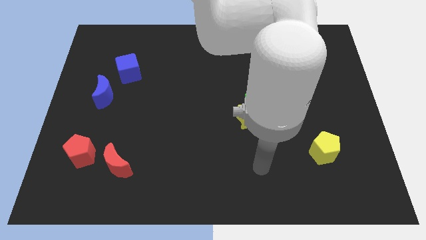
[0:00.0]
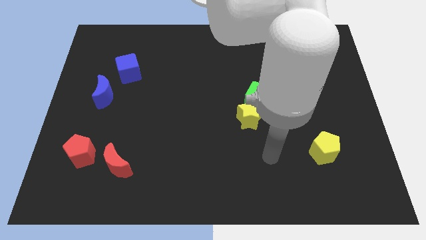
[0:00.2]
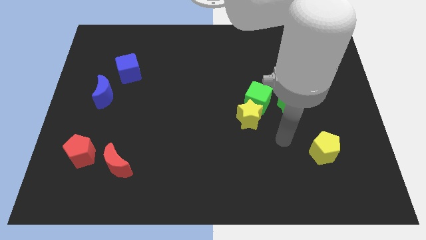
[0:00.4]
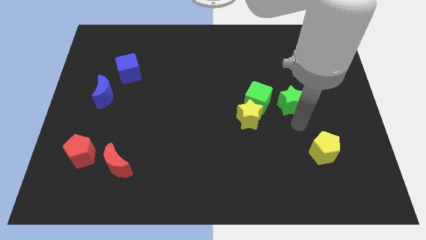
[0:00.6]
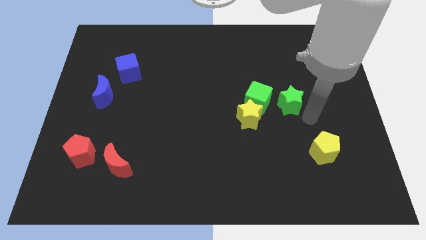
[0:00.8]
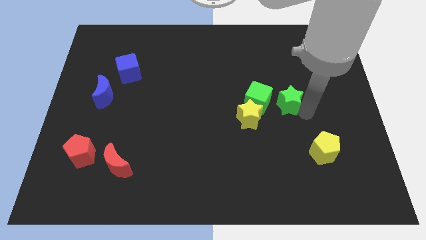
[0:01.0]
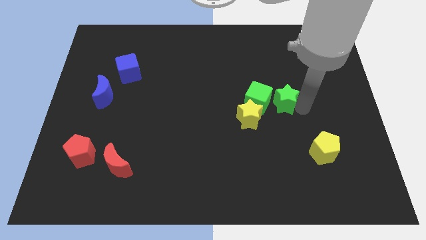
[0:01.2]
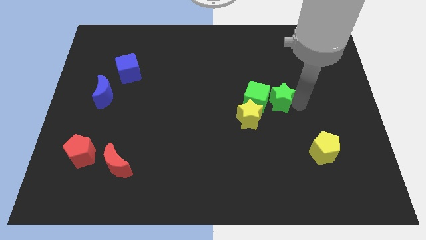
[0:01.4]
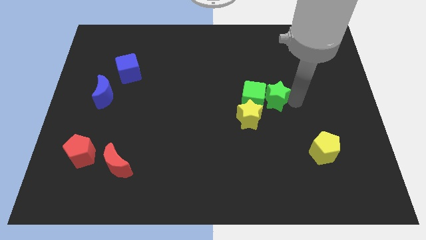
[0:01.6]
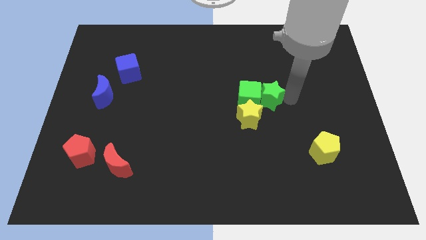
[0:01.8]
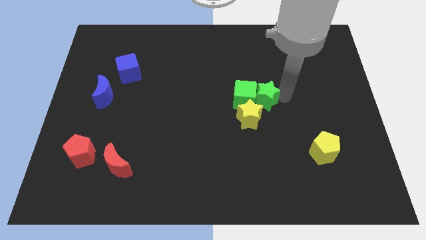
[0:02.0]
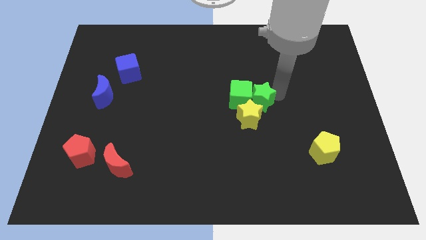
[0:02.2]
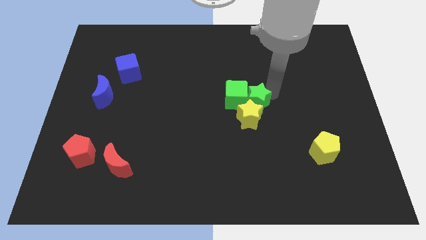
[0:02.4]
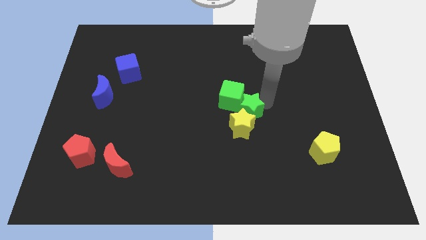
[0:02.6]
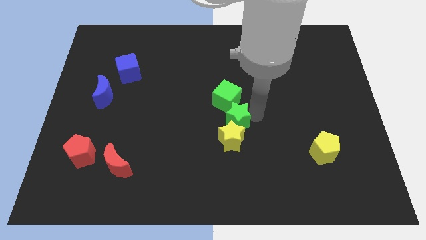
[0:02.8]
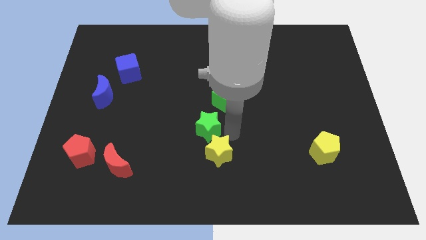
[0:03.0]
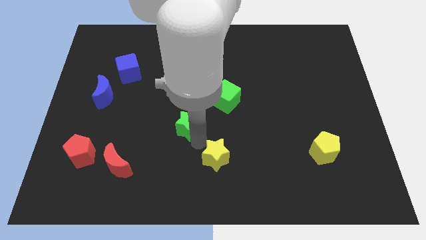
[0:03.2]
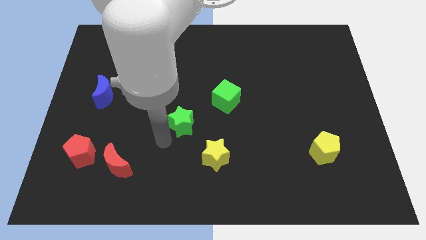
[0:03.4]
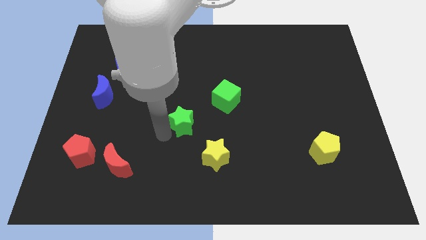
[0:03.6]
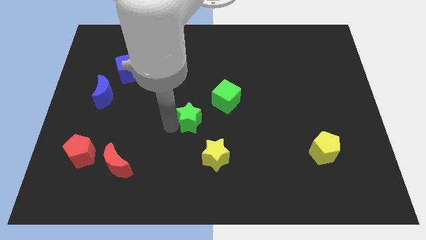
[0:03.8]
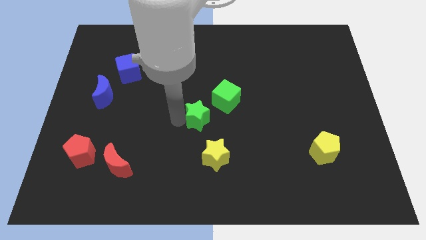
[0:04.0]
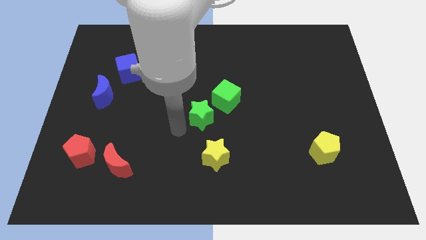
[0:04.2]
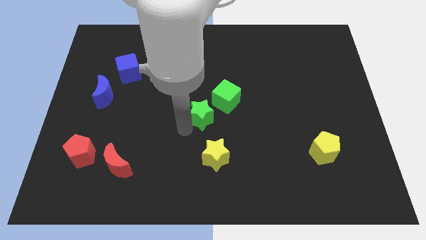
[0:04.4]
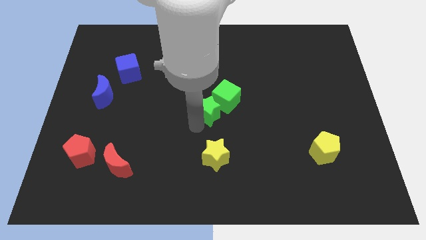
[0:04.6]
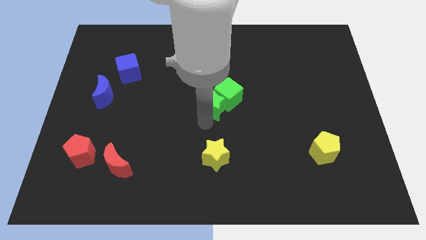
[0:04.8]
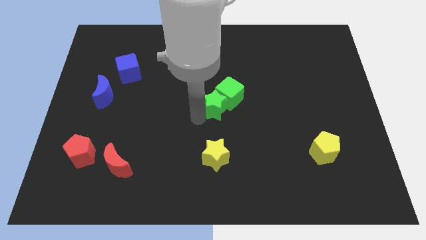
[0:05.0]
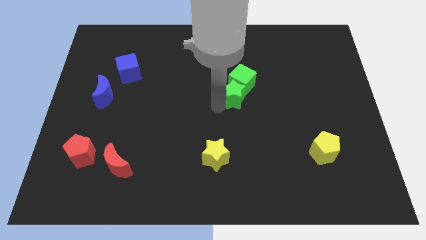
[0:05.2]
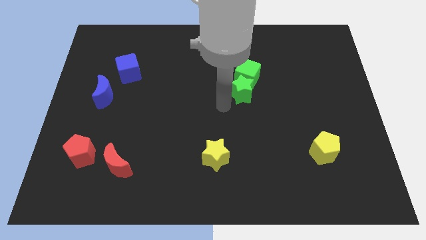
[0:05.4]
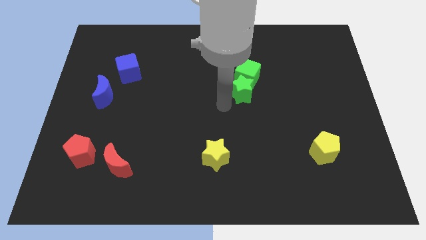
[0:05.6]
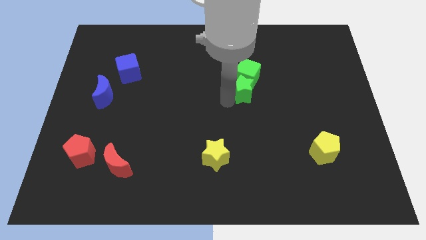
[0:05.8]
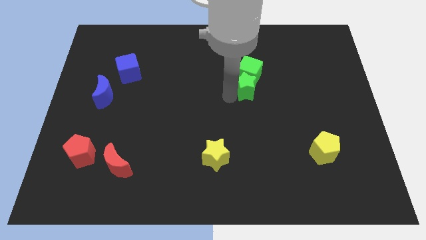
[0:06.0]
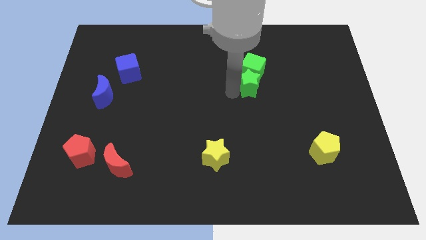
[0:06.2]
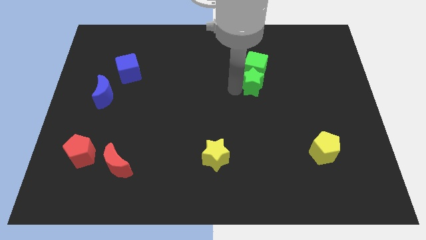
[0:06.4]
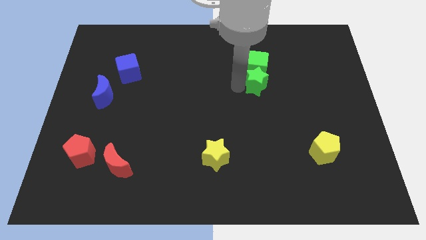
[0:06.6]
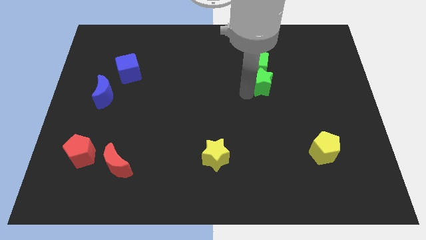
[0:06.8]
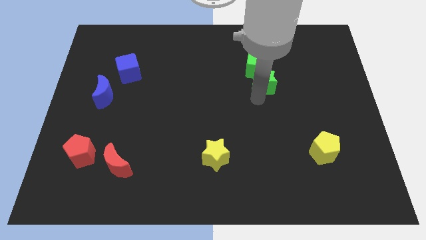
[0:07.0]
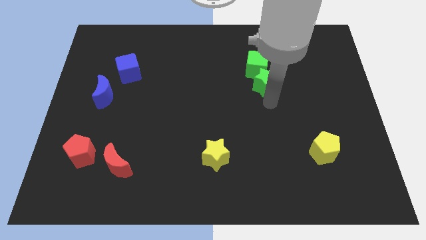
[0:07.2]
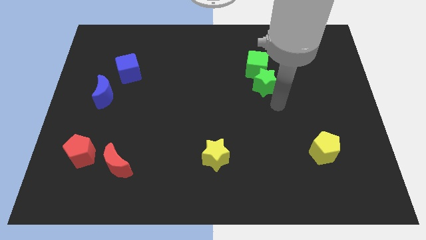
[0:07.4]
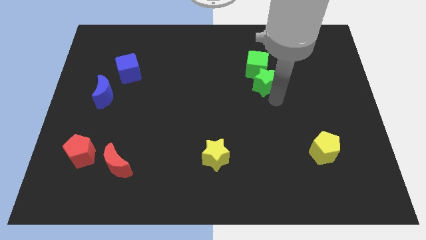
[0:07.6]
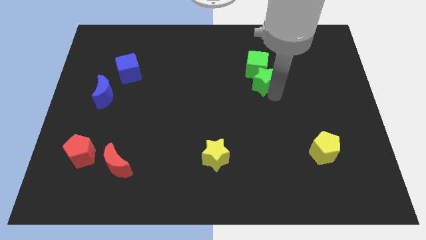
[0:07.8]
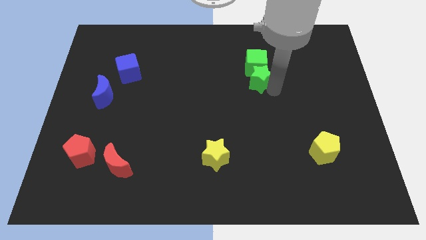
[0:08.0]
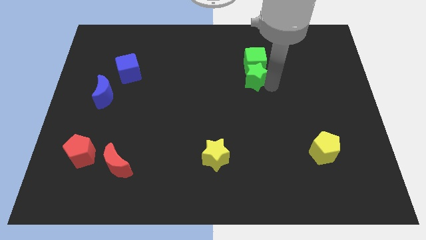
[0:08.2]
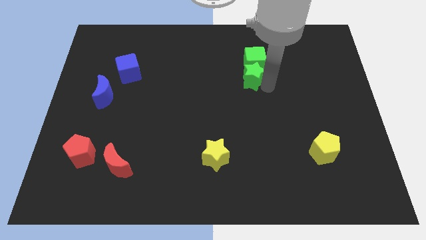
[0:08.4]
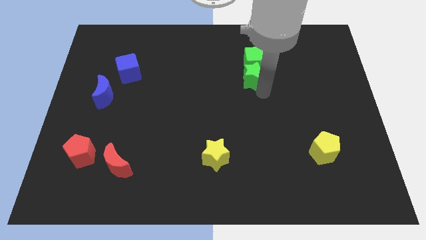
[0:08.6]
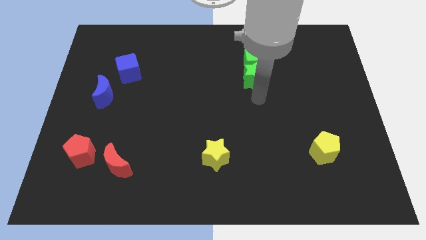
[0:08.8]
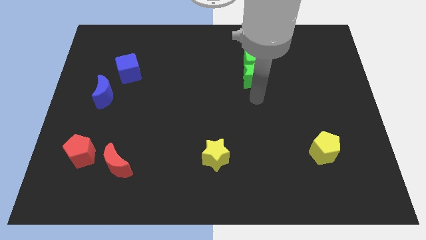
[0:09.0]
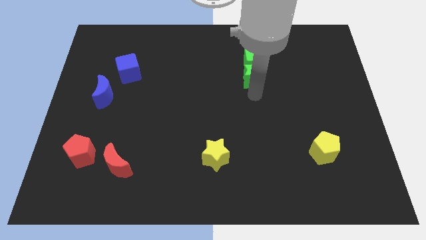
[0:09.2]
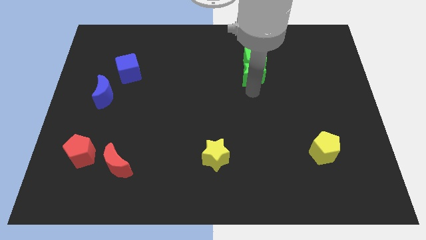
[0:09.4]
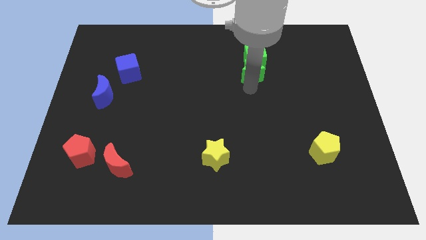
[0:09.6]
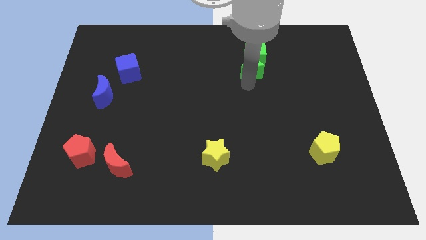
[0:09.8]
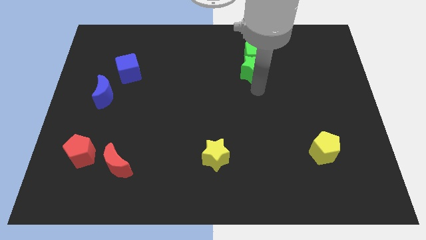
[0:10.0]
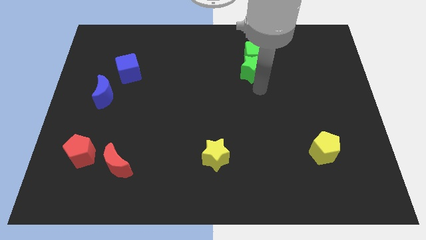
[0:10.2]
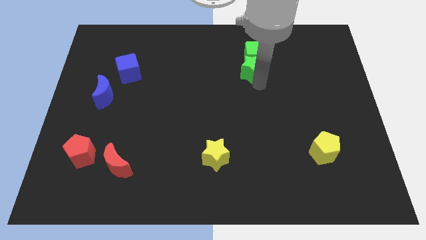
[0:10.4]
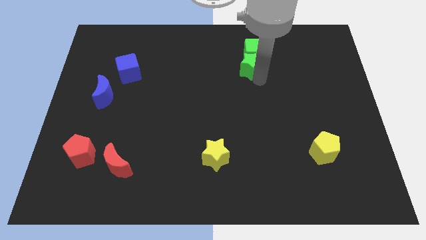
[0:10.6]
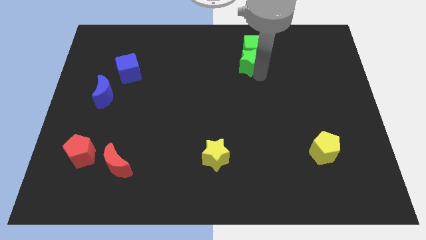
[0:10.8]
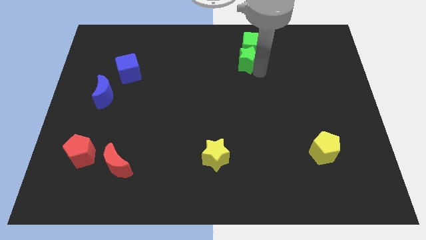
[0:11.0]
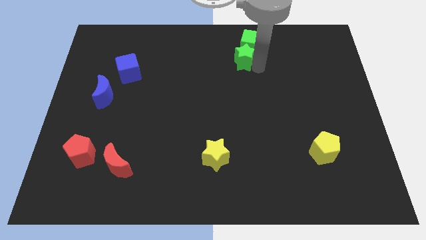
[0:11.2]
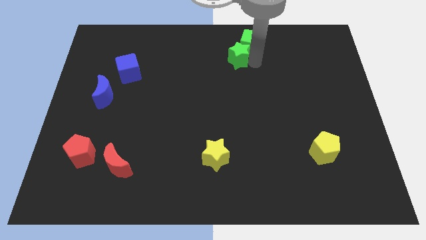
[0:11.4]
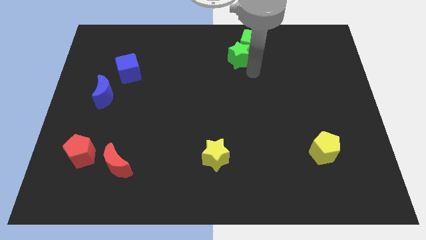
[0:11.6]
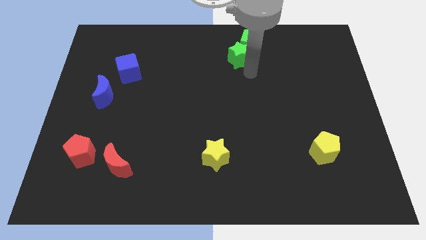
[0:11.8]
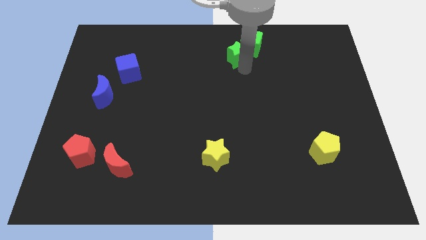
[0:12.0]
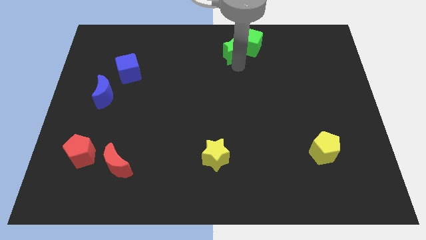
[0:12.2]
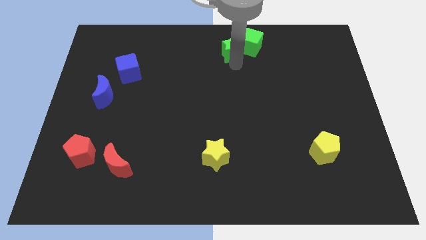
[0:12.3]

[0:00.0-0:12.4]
put the green star to the top

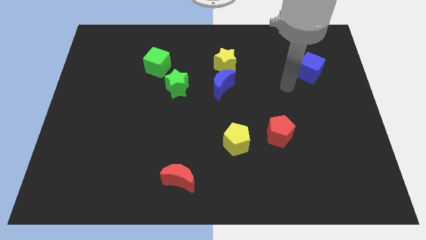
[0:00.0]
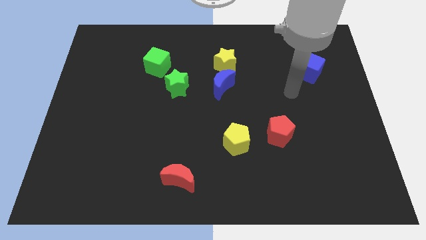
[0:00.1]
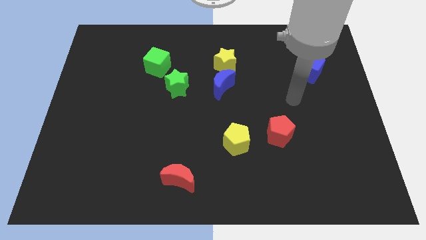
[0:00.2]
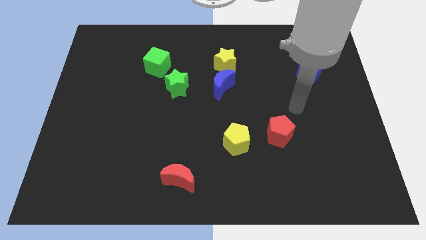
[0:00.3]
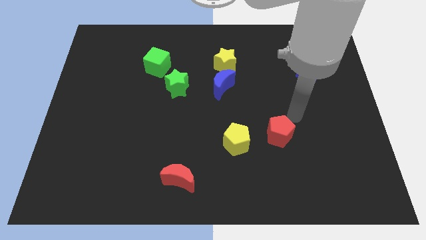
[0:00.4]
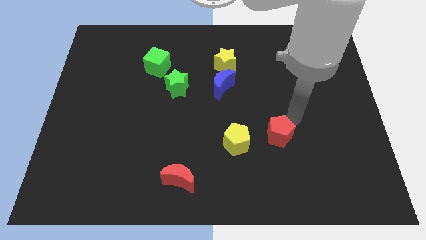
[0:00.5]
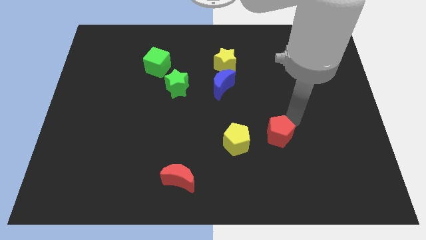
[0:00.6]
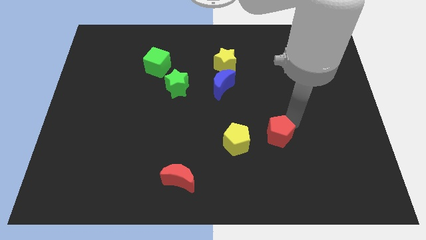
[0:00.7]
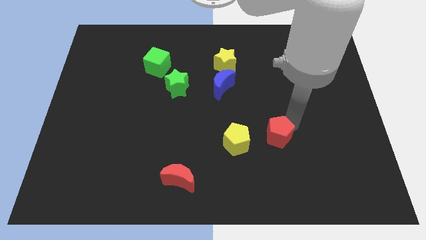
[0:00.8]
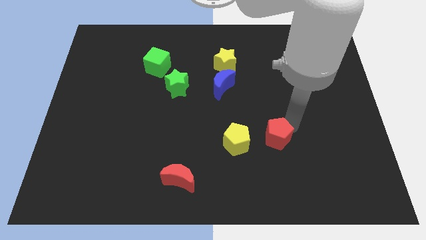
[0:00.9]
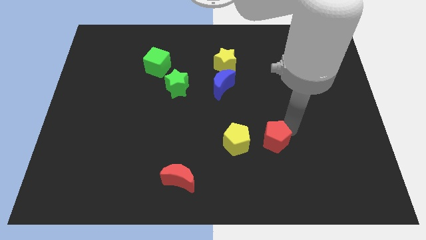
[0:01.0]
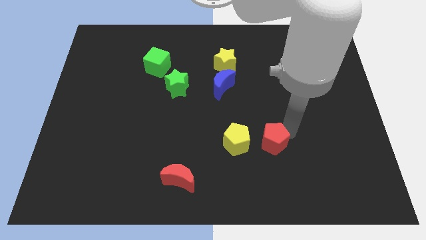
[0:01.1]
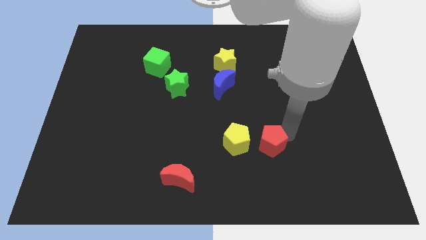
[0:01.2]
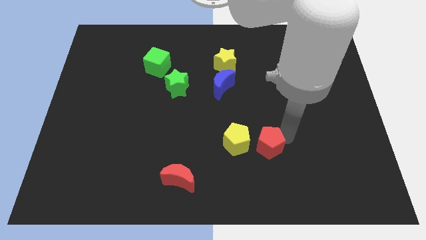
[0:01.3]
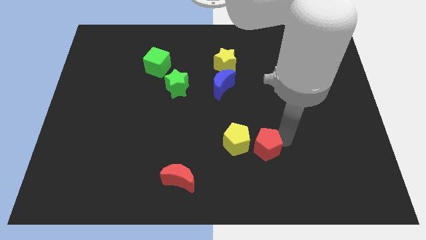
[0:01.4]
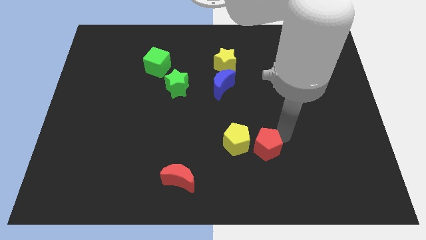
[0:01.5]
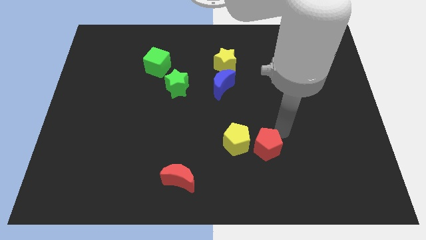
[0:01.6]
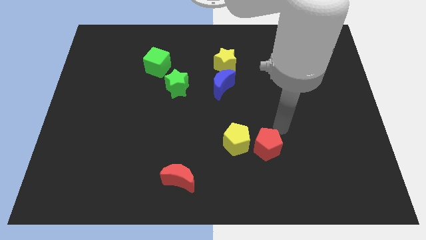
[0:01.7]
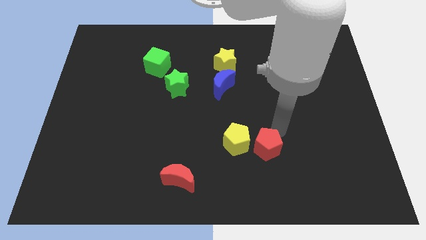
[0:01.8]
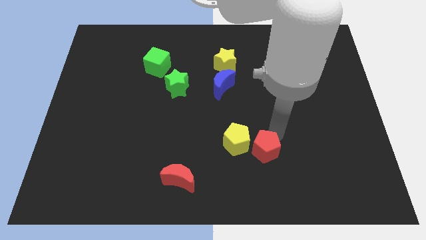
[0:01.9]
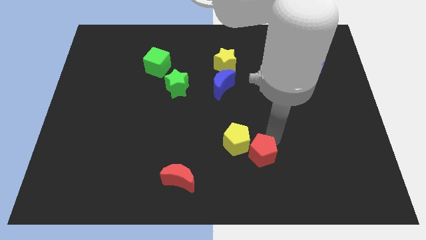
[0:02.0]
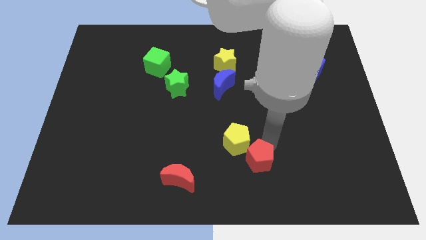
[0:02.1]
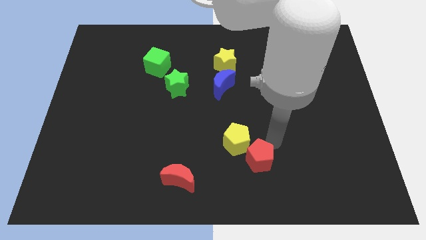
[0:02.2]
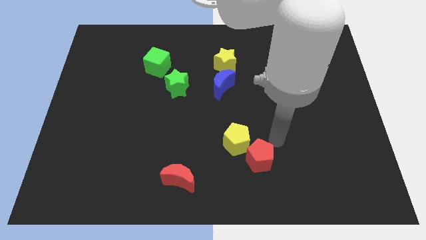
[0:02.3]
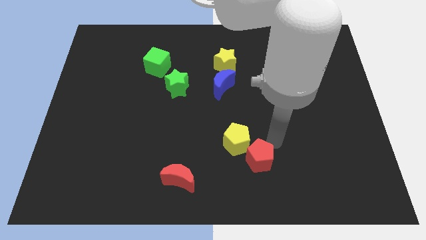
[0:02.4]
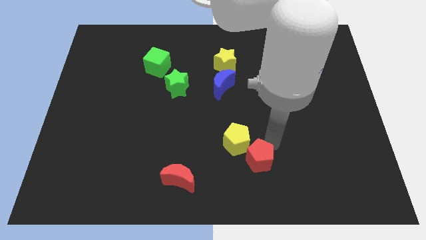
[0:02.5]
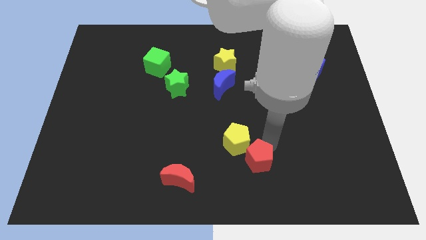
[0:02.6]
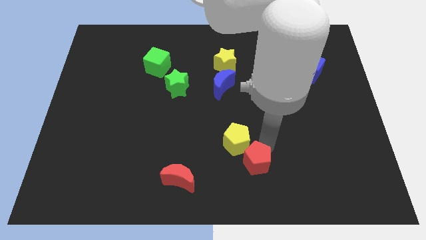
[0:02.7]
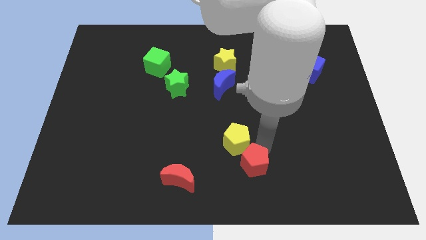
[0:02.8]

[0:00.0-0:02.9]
slide the red pentagon to the bottom
